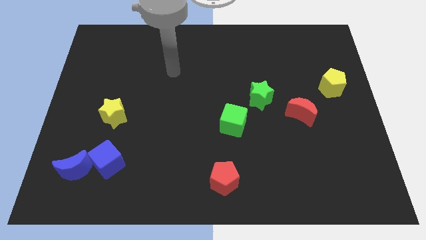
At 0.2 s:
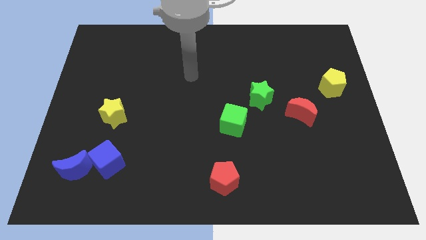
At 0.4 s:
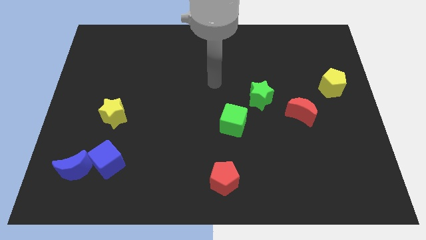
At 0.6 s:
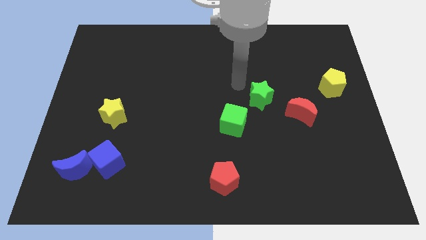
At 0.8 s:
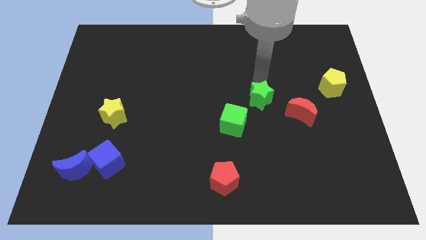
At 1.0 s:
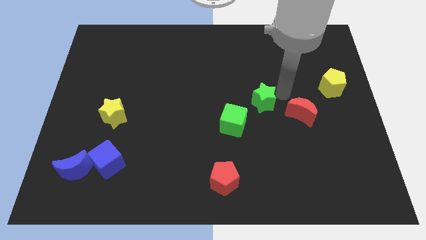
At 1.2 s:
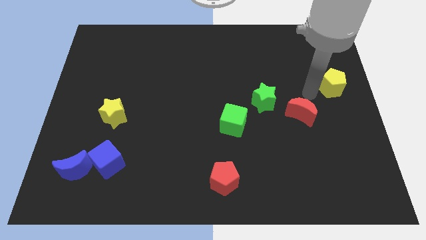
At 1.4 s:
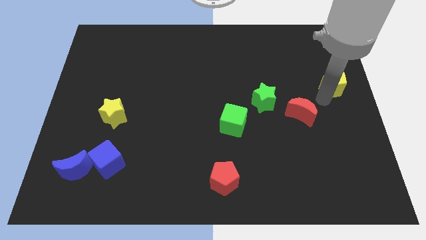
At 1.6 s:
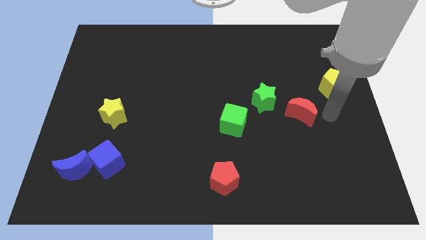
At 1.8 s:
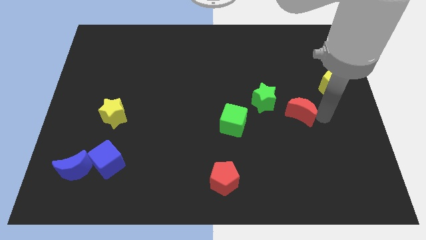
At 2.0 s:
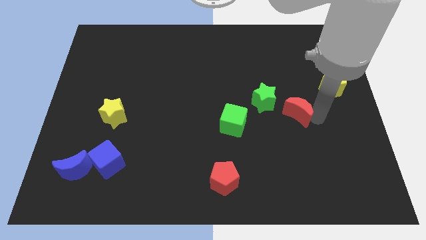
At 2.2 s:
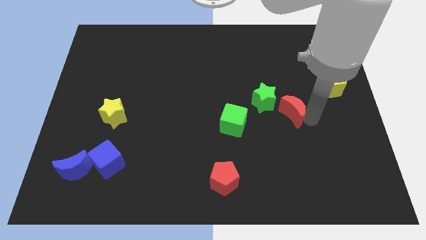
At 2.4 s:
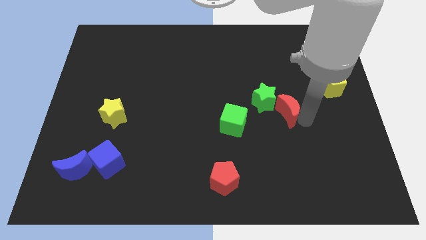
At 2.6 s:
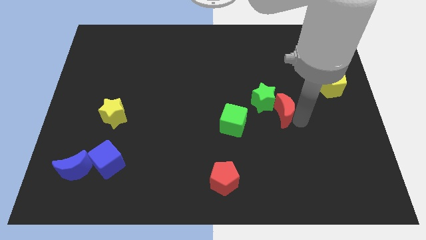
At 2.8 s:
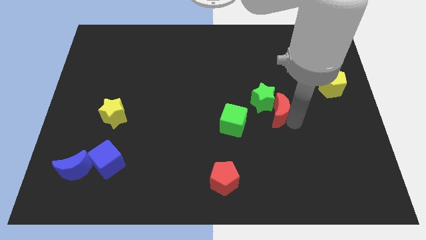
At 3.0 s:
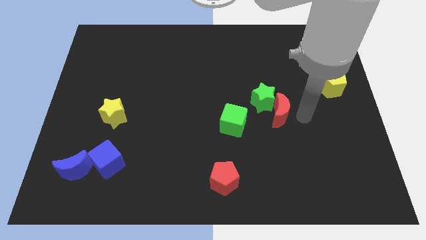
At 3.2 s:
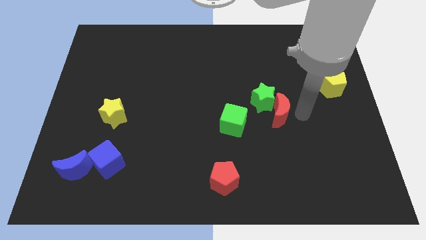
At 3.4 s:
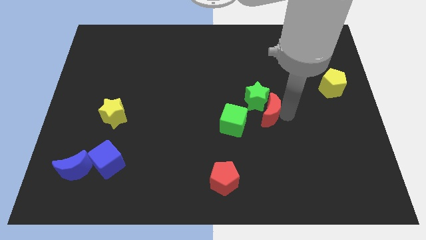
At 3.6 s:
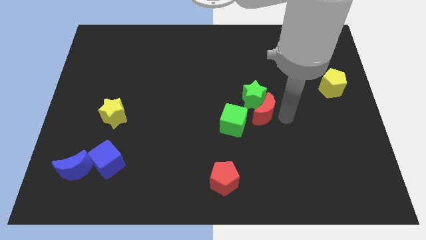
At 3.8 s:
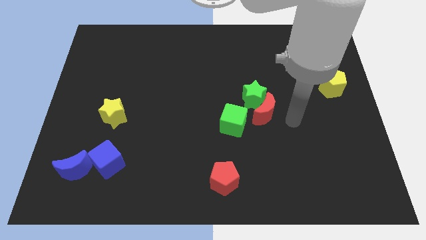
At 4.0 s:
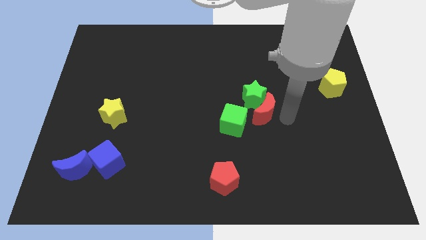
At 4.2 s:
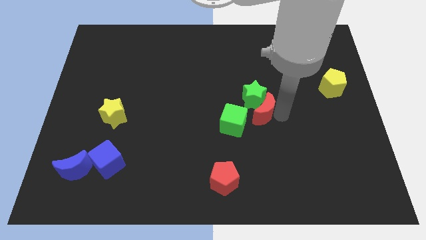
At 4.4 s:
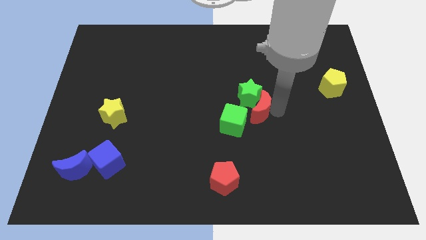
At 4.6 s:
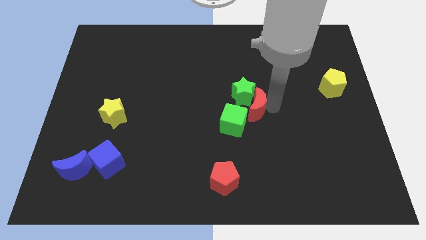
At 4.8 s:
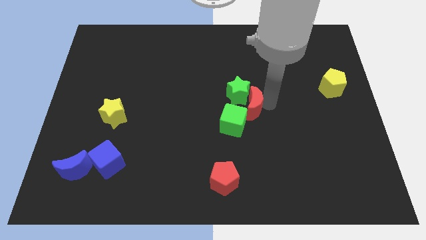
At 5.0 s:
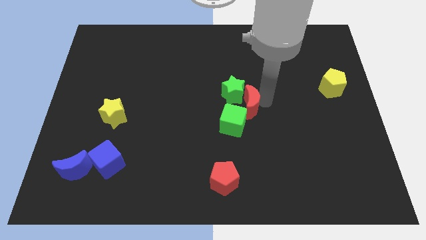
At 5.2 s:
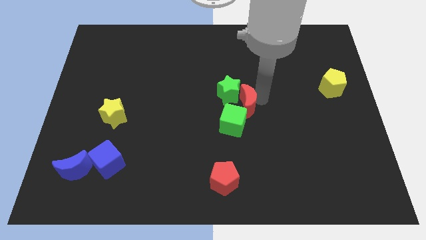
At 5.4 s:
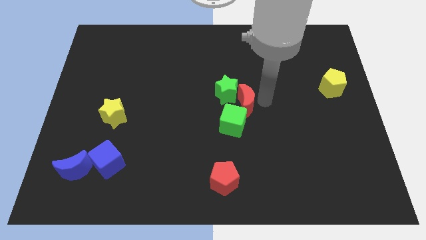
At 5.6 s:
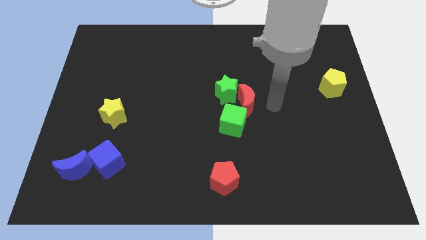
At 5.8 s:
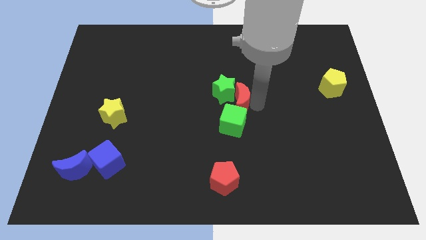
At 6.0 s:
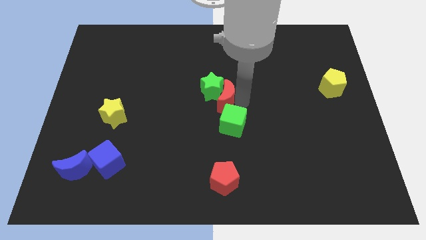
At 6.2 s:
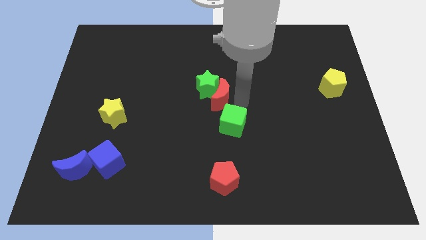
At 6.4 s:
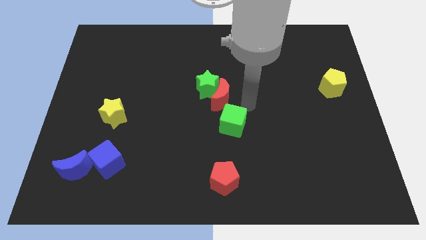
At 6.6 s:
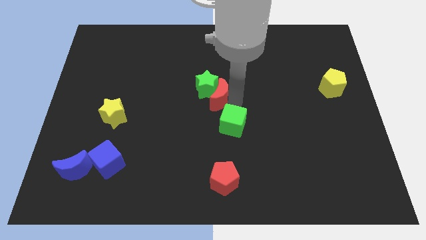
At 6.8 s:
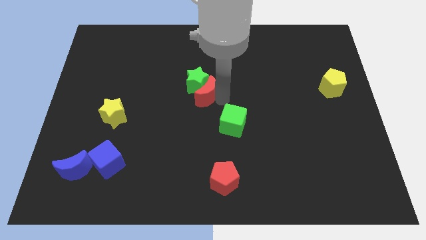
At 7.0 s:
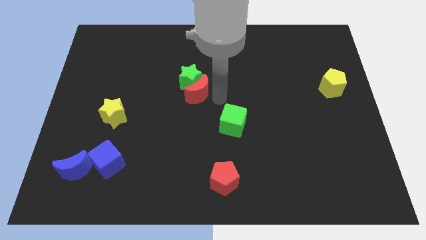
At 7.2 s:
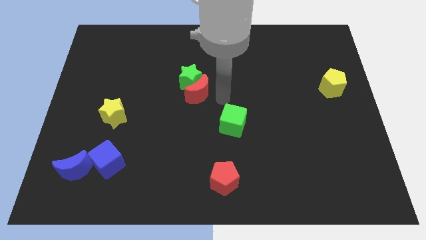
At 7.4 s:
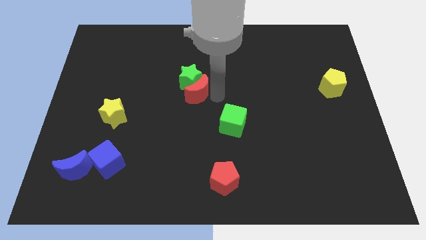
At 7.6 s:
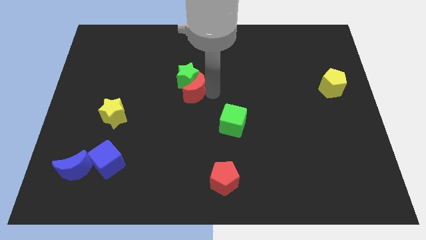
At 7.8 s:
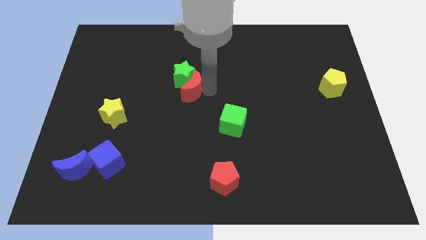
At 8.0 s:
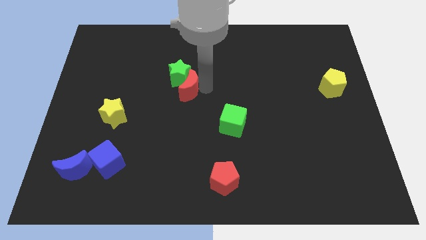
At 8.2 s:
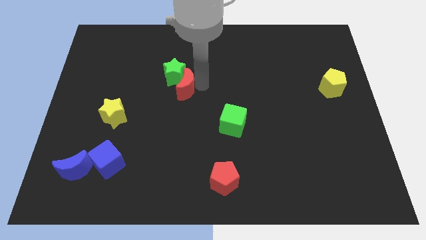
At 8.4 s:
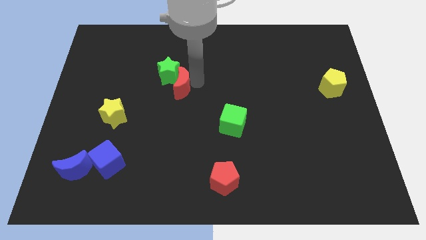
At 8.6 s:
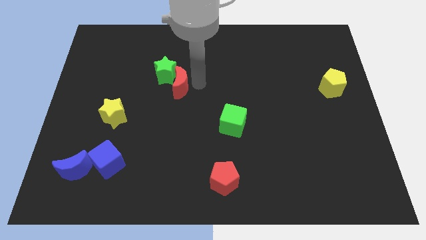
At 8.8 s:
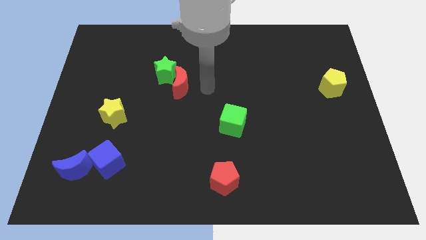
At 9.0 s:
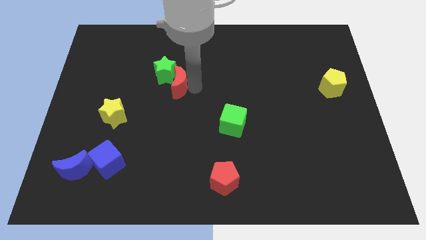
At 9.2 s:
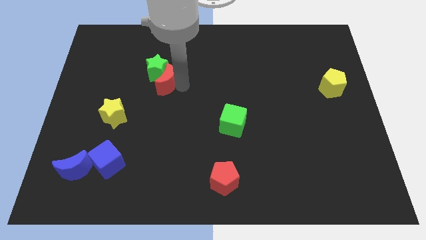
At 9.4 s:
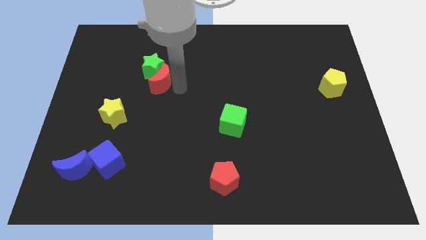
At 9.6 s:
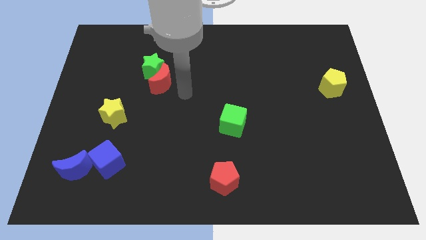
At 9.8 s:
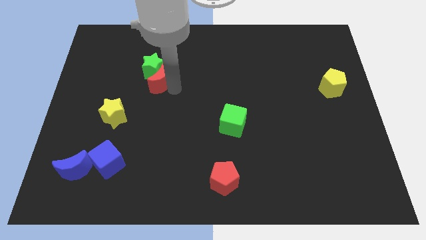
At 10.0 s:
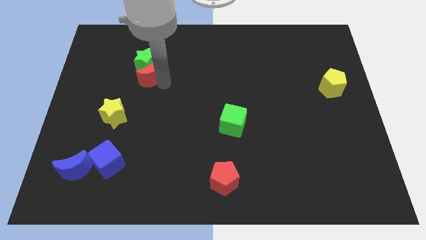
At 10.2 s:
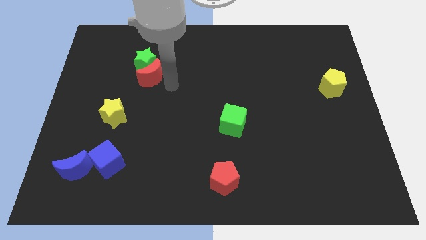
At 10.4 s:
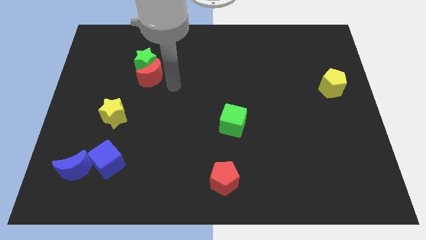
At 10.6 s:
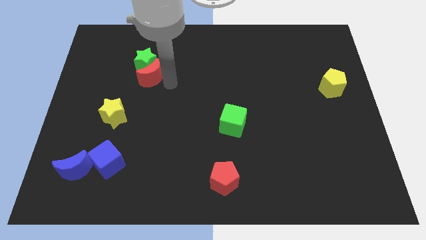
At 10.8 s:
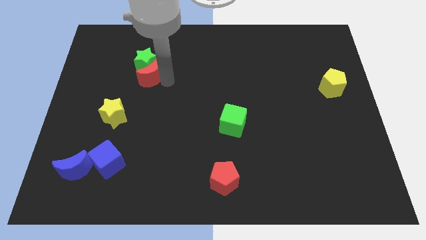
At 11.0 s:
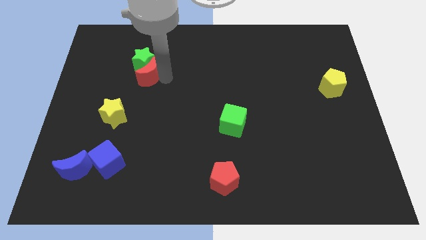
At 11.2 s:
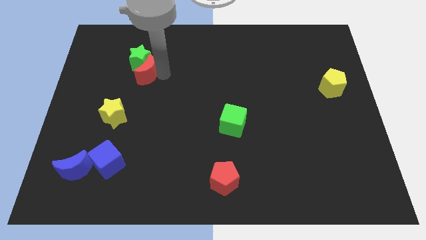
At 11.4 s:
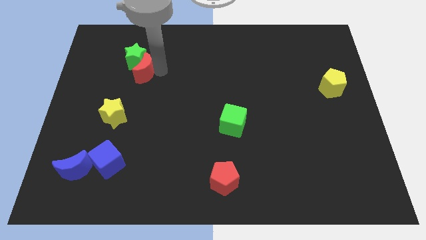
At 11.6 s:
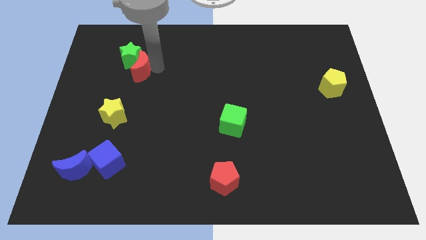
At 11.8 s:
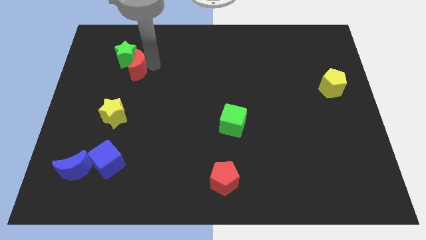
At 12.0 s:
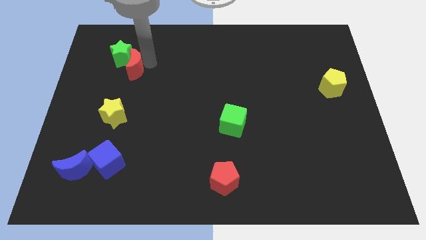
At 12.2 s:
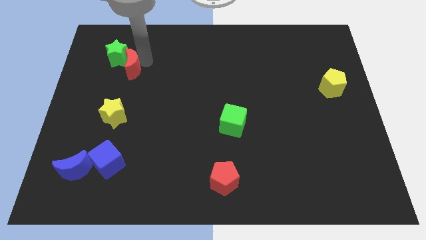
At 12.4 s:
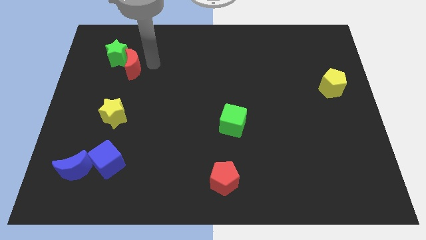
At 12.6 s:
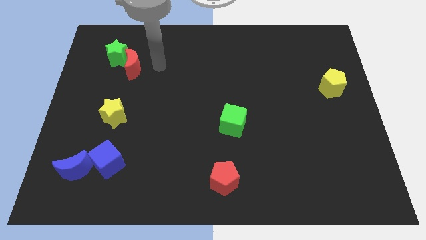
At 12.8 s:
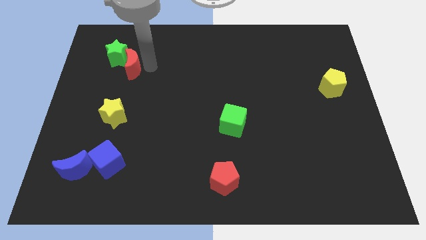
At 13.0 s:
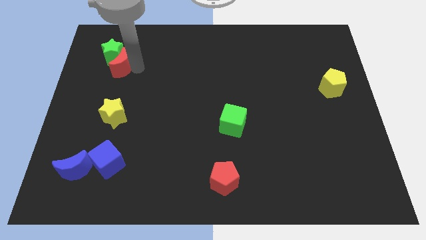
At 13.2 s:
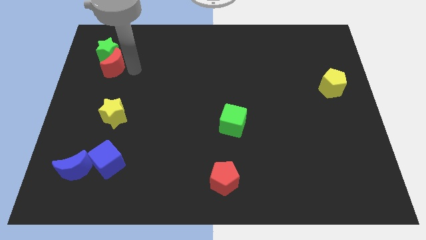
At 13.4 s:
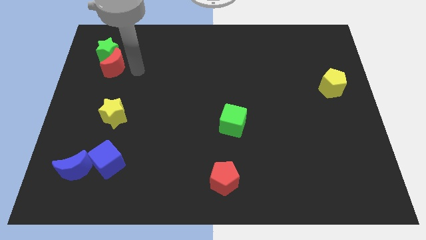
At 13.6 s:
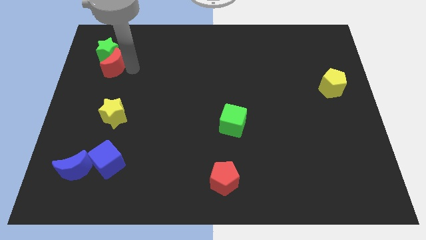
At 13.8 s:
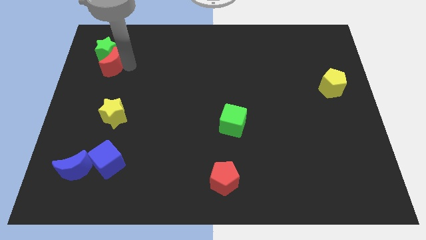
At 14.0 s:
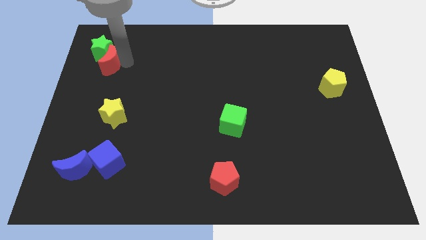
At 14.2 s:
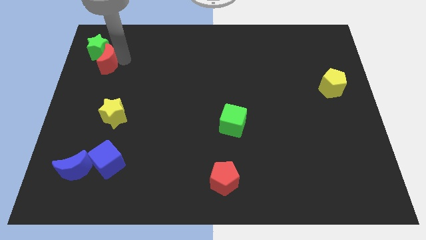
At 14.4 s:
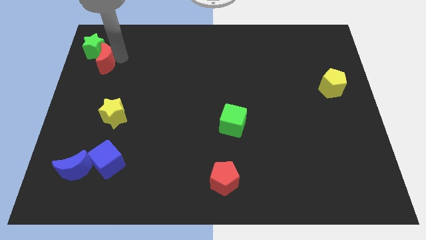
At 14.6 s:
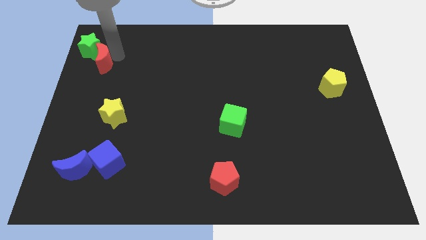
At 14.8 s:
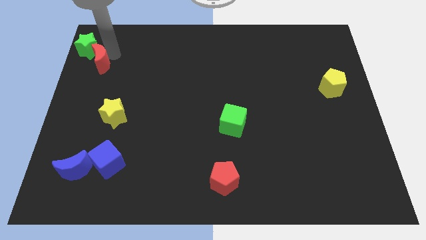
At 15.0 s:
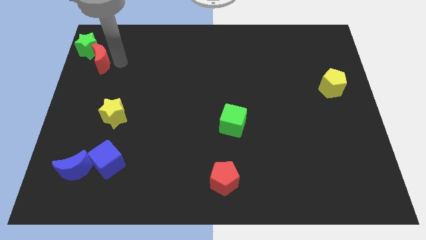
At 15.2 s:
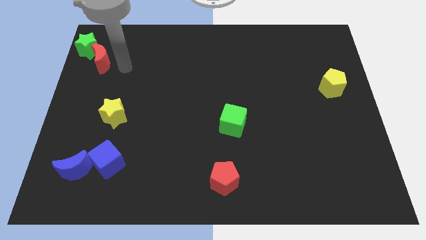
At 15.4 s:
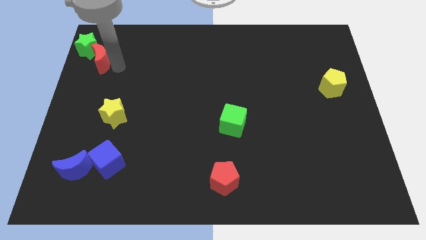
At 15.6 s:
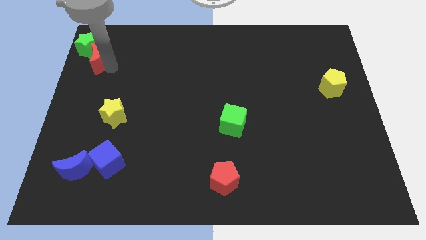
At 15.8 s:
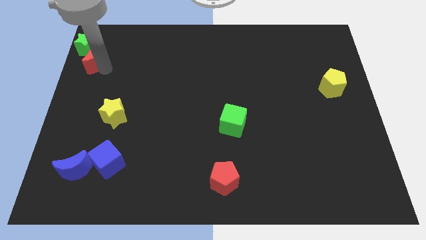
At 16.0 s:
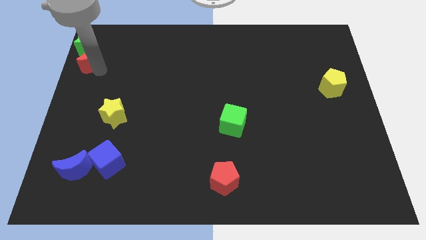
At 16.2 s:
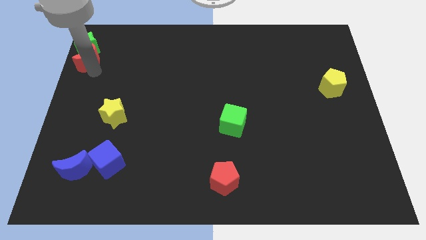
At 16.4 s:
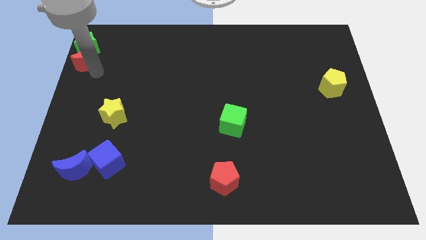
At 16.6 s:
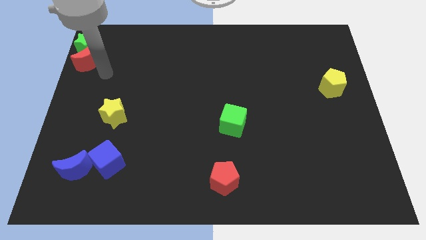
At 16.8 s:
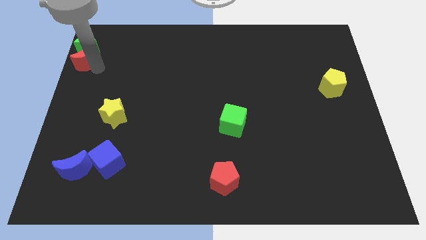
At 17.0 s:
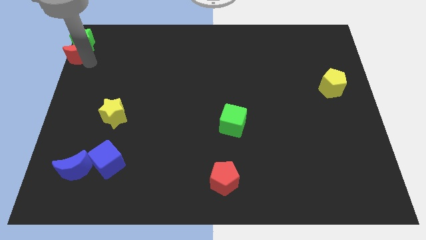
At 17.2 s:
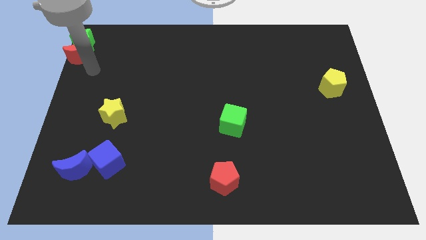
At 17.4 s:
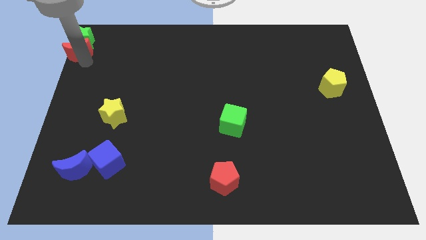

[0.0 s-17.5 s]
put the red moon to the top left corner
